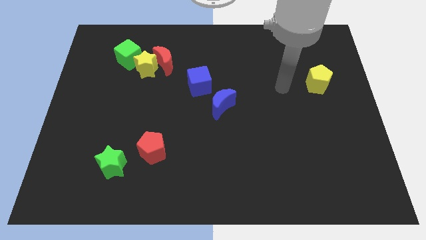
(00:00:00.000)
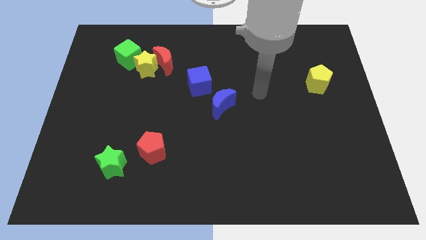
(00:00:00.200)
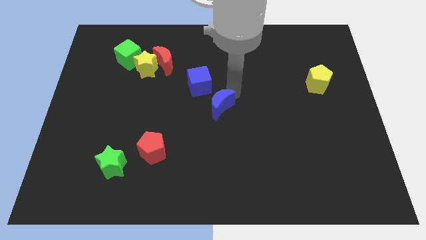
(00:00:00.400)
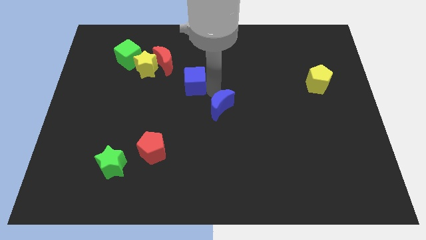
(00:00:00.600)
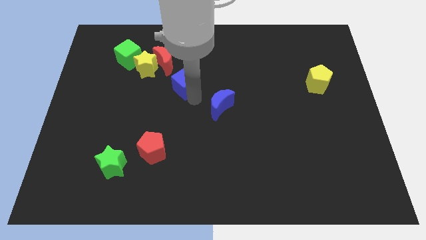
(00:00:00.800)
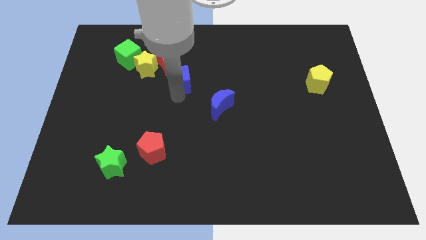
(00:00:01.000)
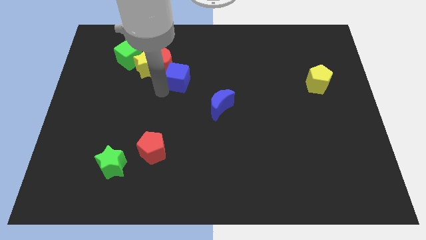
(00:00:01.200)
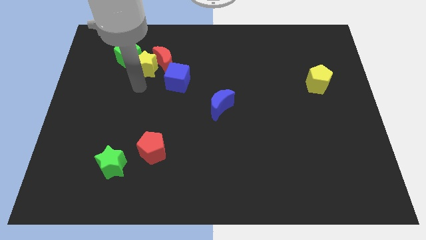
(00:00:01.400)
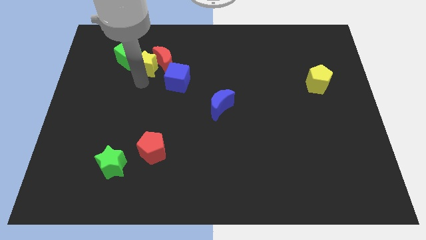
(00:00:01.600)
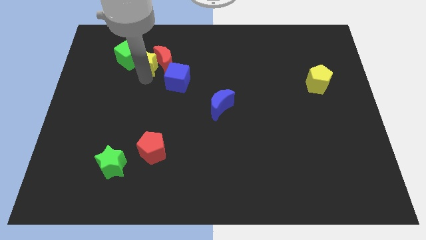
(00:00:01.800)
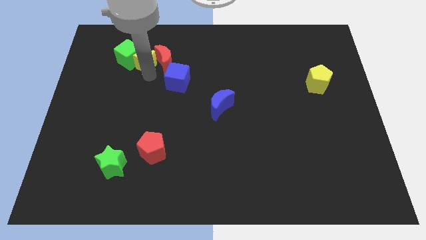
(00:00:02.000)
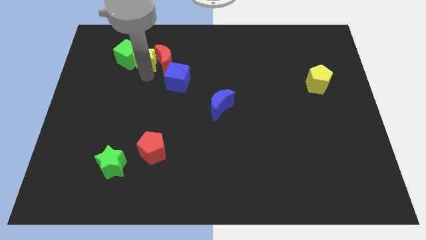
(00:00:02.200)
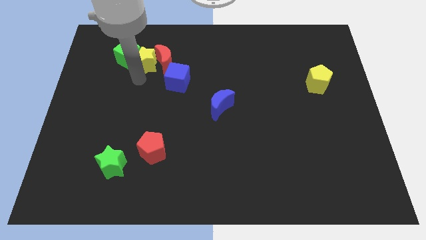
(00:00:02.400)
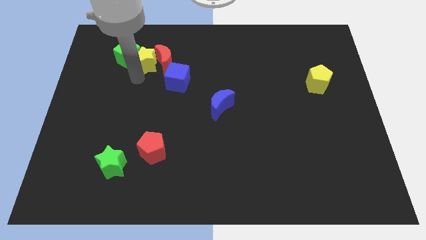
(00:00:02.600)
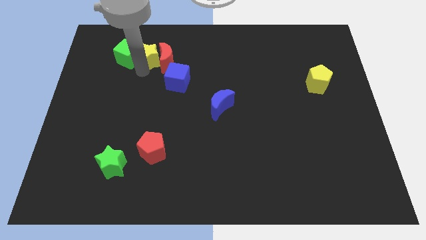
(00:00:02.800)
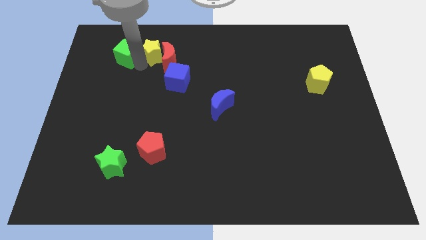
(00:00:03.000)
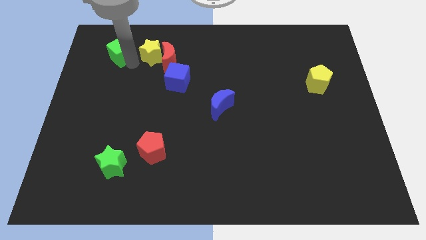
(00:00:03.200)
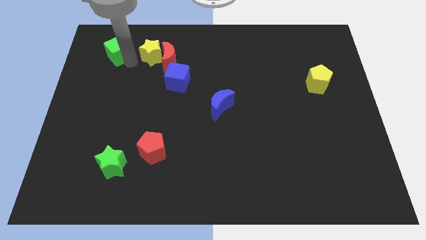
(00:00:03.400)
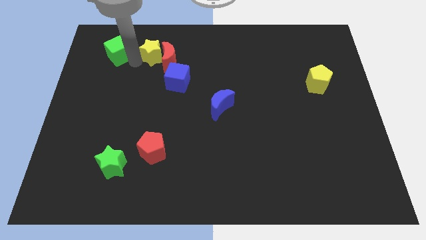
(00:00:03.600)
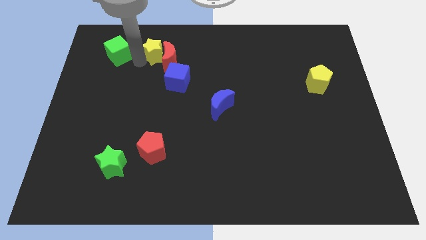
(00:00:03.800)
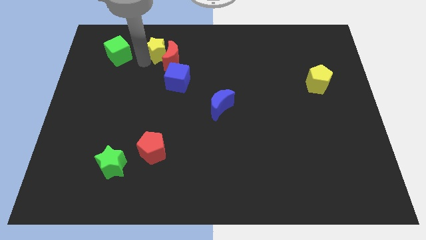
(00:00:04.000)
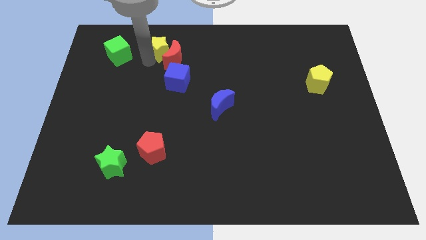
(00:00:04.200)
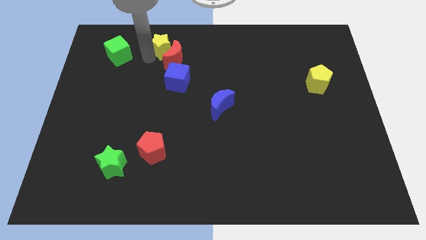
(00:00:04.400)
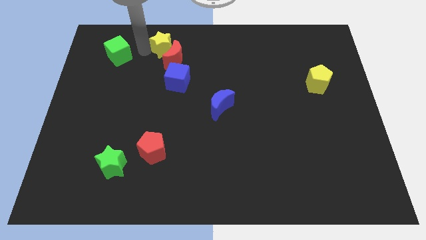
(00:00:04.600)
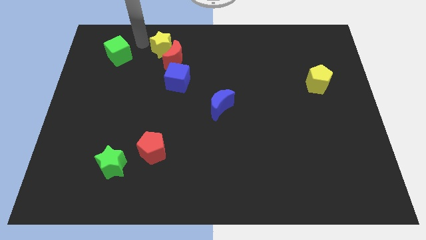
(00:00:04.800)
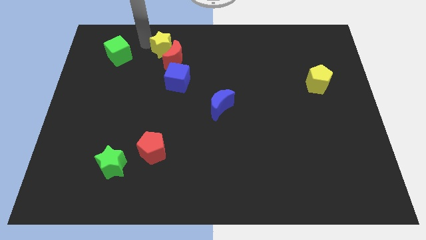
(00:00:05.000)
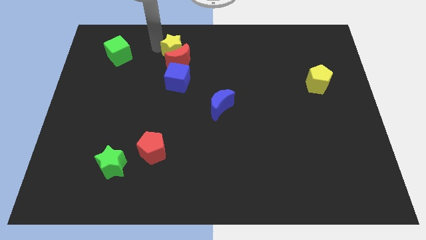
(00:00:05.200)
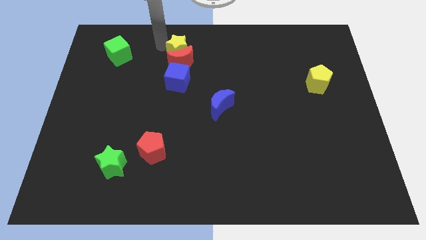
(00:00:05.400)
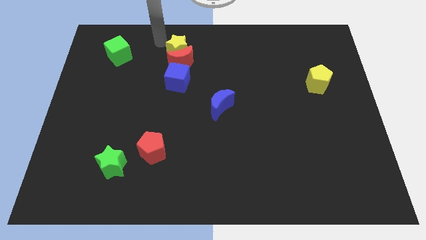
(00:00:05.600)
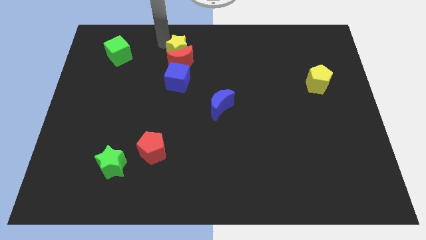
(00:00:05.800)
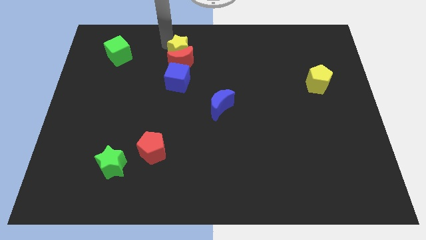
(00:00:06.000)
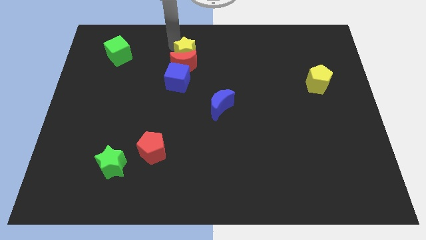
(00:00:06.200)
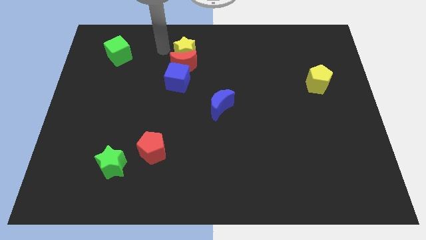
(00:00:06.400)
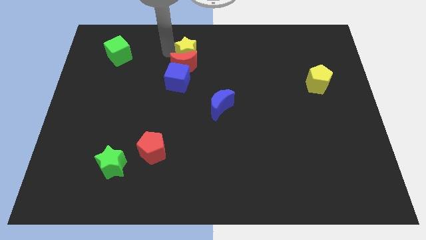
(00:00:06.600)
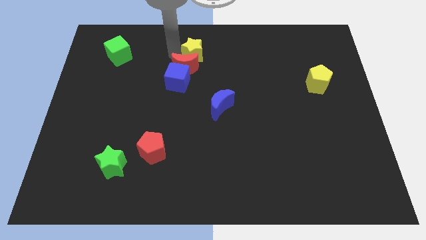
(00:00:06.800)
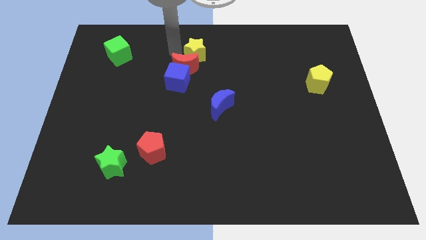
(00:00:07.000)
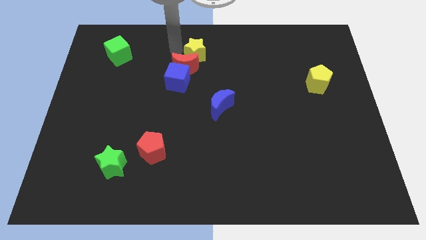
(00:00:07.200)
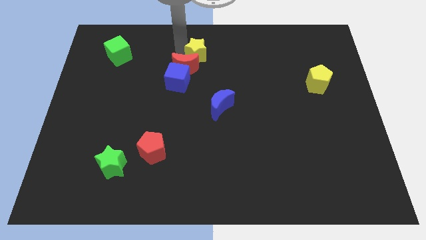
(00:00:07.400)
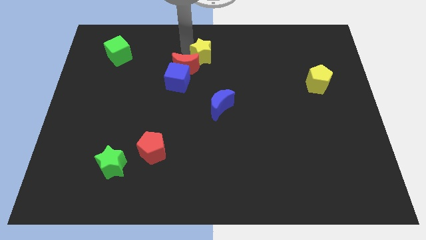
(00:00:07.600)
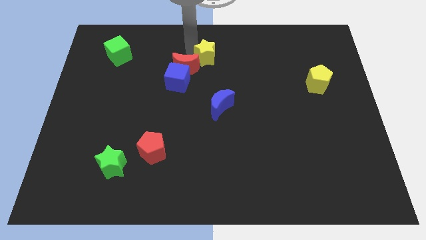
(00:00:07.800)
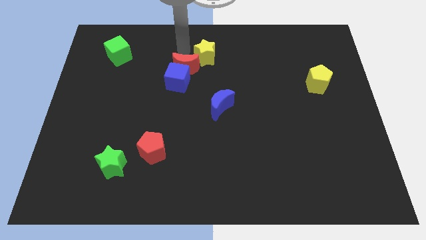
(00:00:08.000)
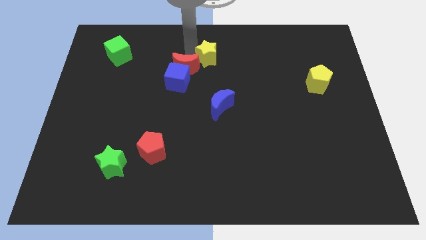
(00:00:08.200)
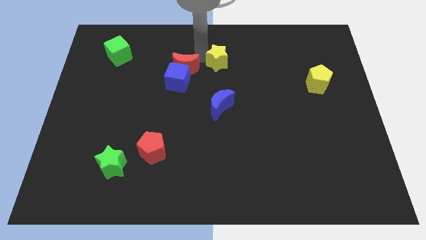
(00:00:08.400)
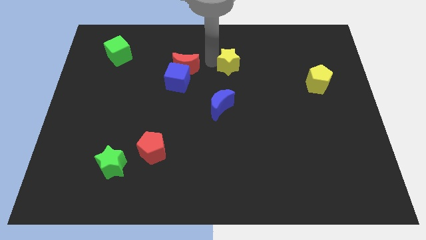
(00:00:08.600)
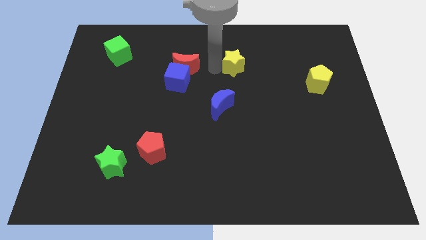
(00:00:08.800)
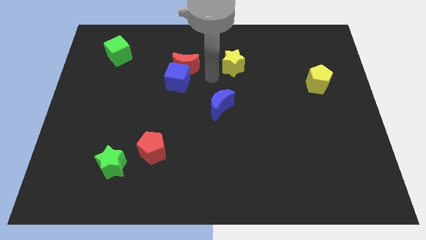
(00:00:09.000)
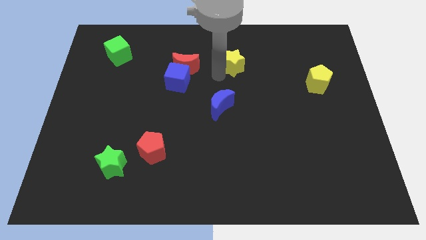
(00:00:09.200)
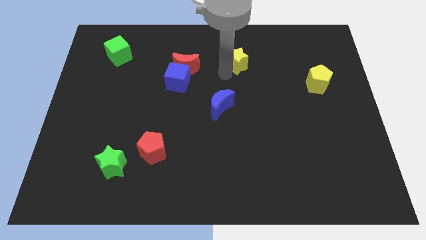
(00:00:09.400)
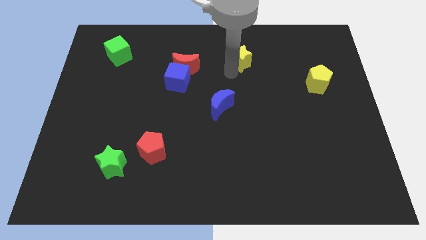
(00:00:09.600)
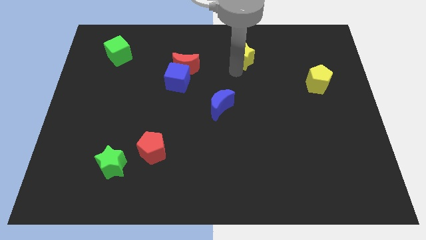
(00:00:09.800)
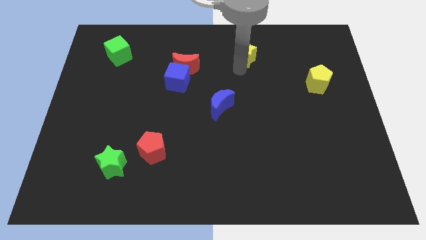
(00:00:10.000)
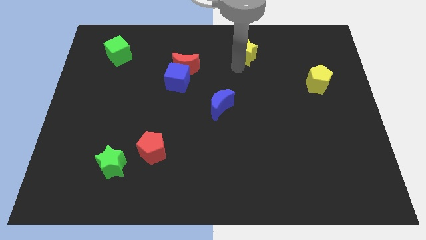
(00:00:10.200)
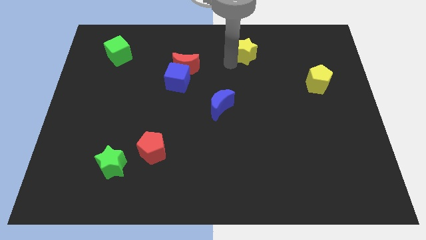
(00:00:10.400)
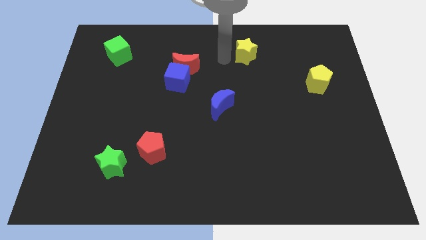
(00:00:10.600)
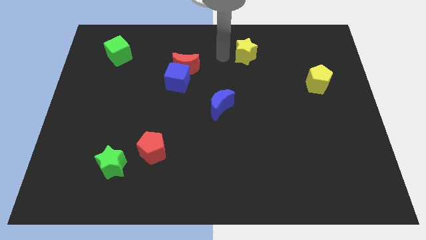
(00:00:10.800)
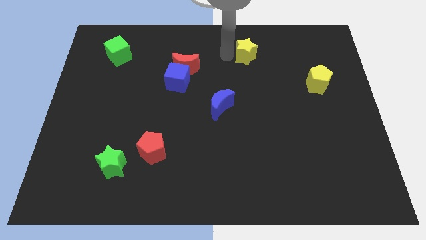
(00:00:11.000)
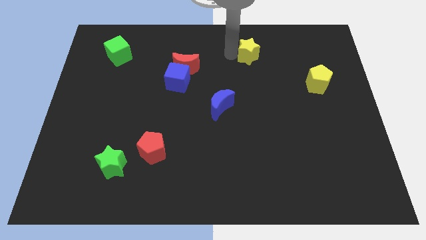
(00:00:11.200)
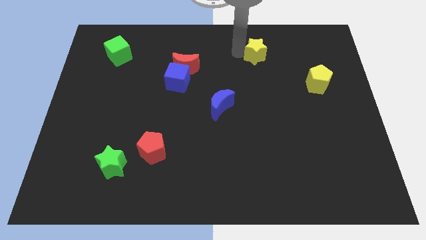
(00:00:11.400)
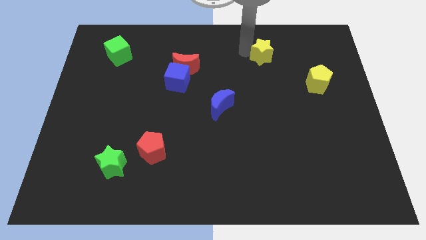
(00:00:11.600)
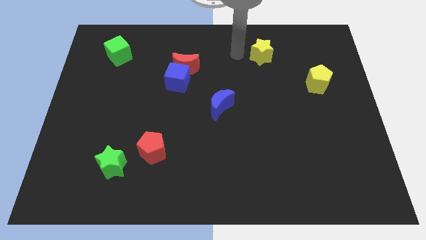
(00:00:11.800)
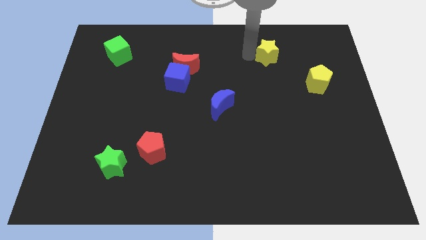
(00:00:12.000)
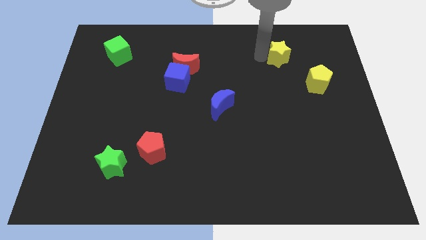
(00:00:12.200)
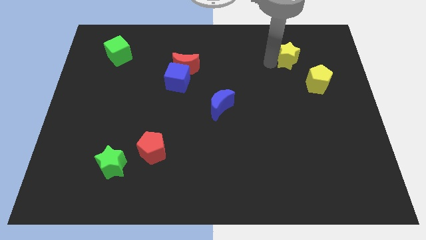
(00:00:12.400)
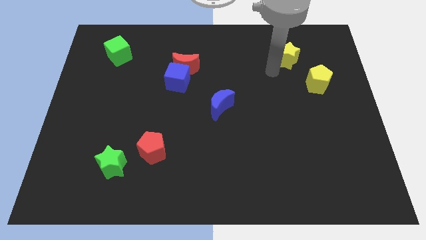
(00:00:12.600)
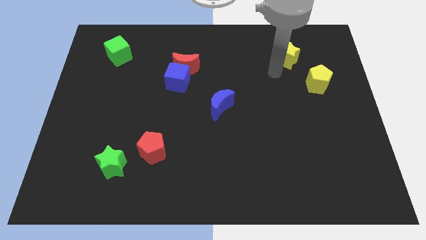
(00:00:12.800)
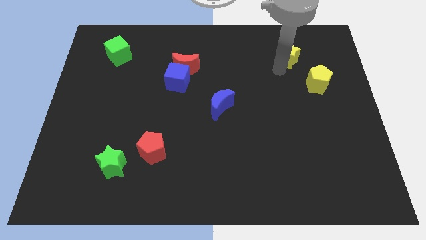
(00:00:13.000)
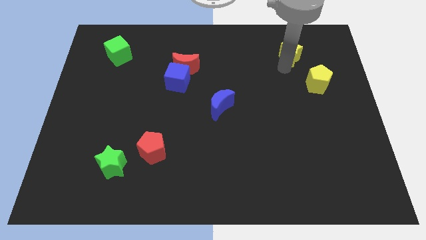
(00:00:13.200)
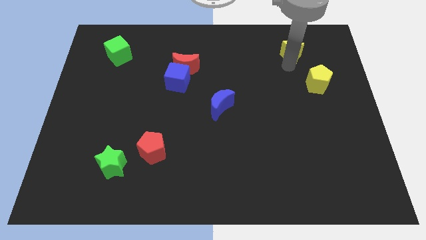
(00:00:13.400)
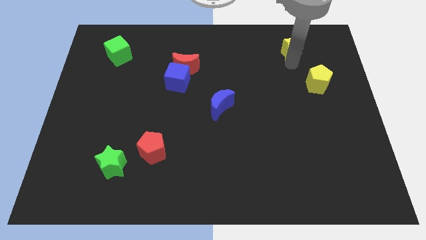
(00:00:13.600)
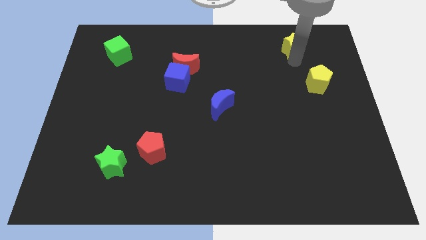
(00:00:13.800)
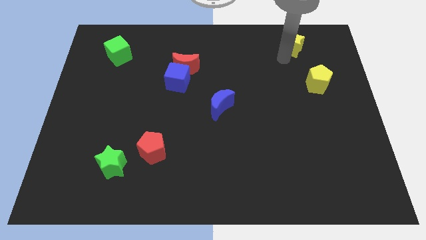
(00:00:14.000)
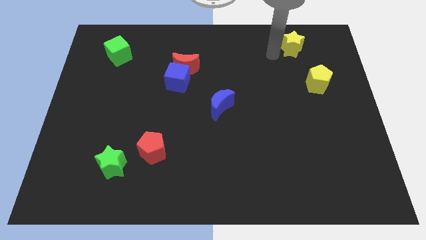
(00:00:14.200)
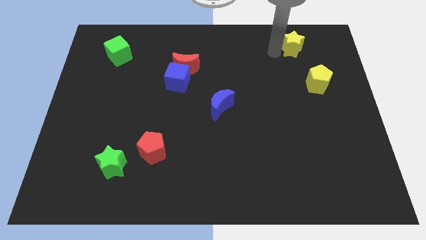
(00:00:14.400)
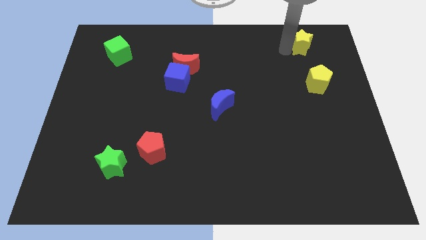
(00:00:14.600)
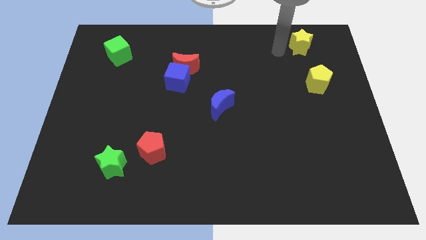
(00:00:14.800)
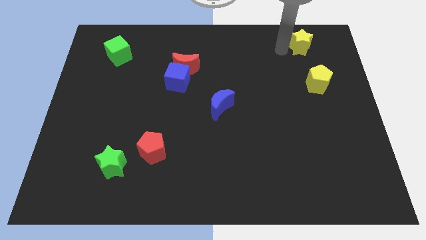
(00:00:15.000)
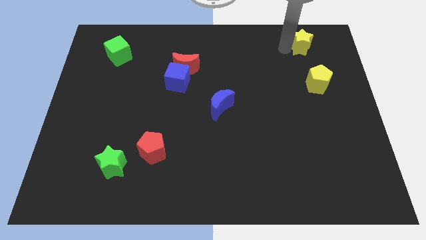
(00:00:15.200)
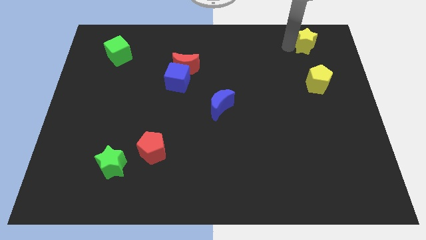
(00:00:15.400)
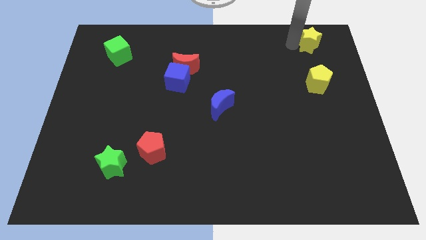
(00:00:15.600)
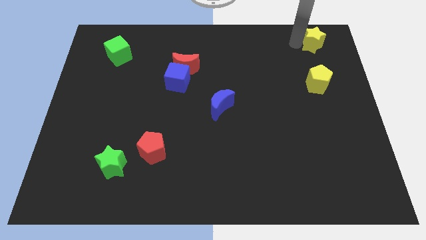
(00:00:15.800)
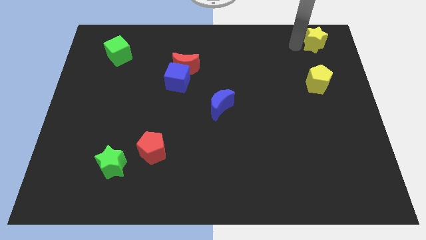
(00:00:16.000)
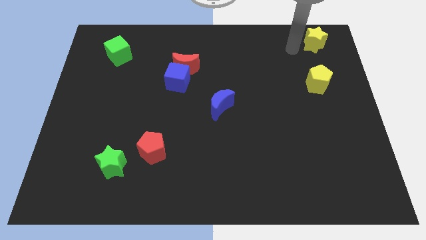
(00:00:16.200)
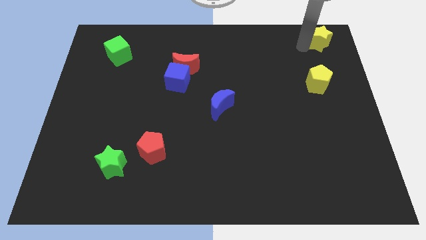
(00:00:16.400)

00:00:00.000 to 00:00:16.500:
put the yellow star to the top right of the board
